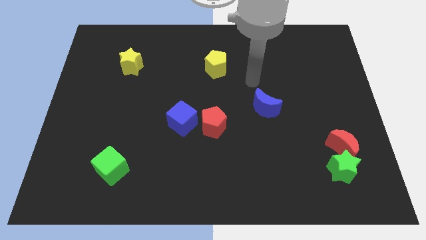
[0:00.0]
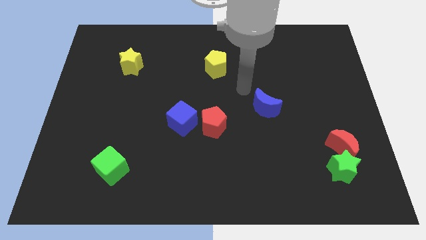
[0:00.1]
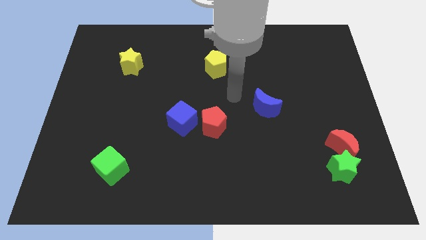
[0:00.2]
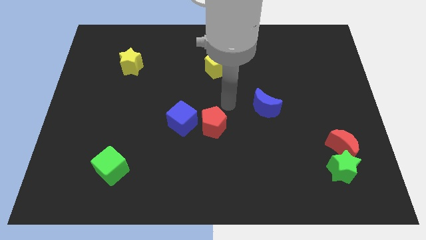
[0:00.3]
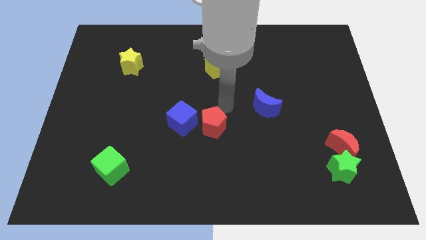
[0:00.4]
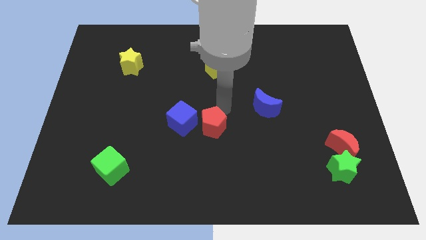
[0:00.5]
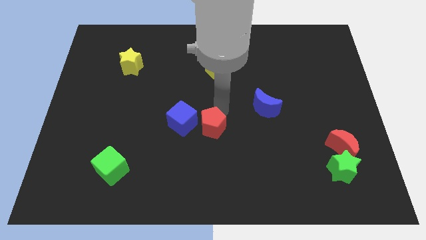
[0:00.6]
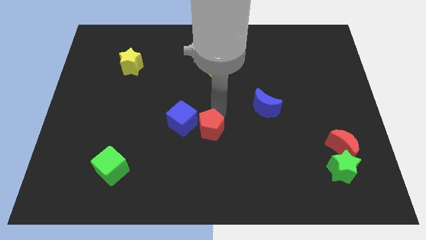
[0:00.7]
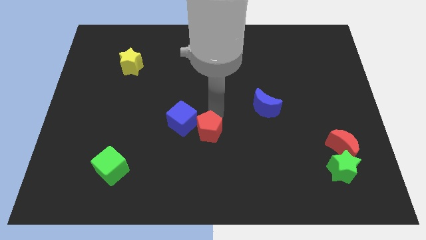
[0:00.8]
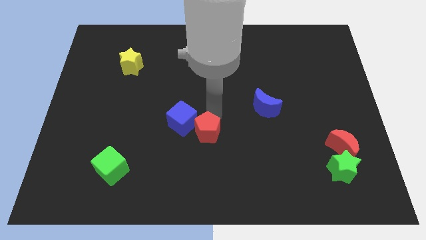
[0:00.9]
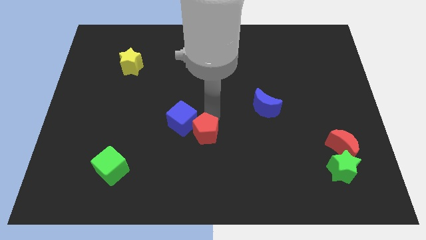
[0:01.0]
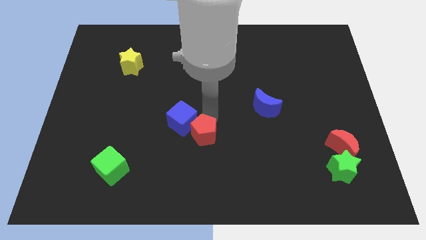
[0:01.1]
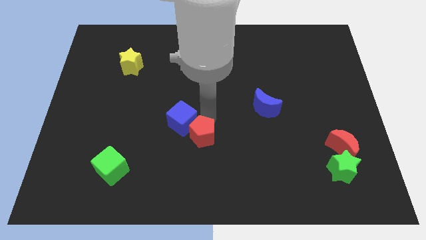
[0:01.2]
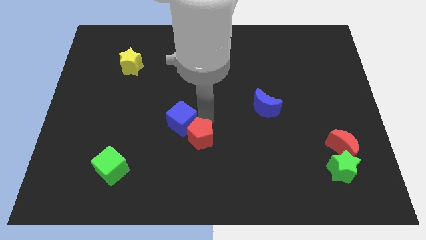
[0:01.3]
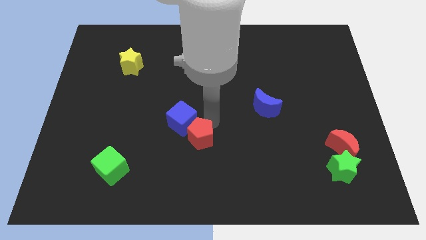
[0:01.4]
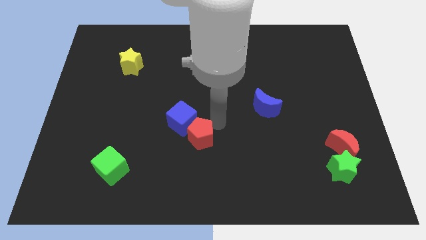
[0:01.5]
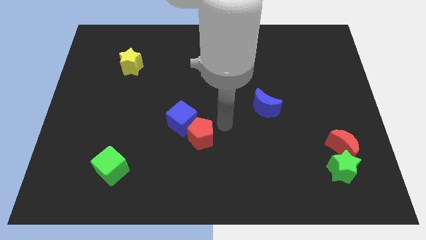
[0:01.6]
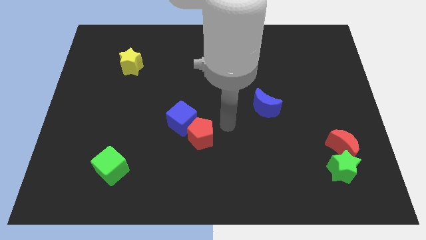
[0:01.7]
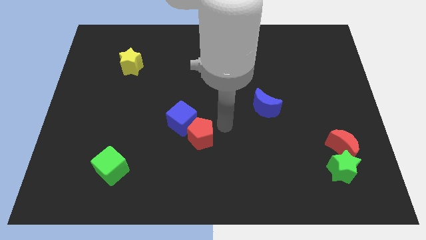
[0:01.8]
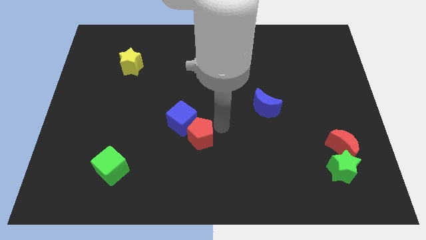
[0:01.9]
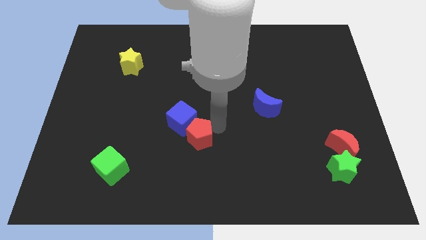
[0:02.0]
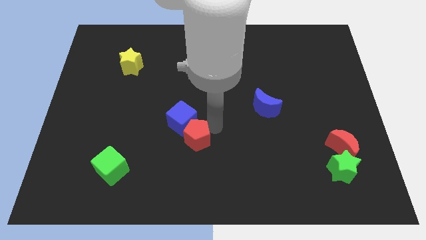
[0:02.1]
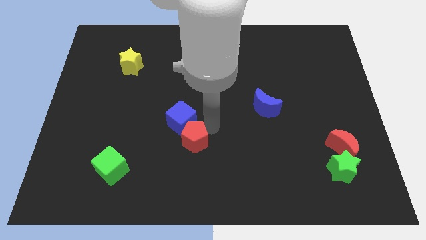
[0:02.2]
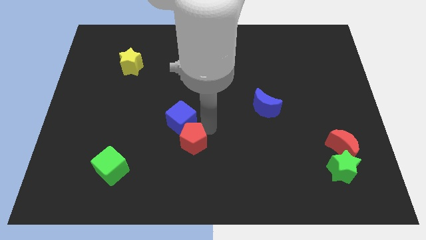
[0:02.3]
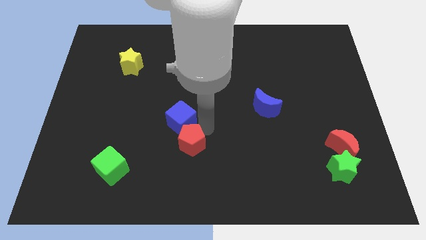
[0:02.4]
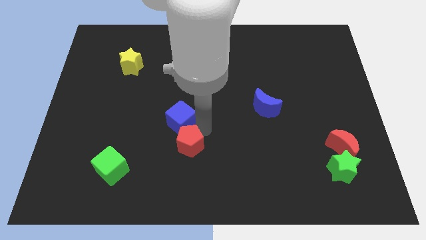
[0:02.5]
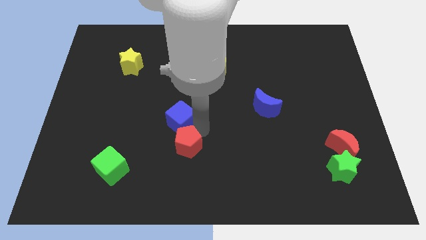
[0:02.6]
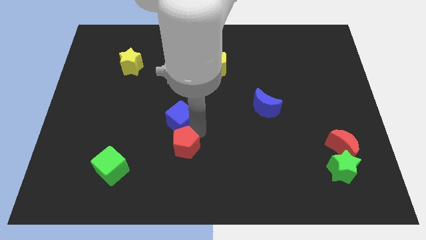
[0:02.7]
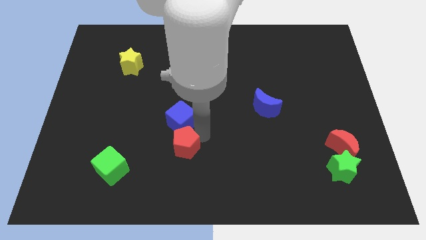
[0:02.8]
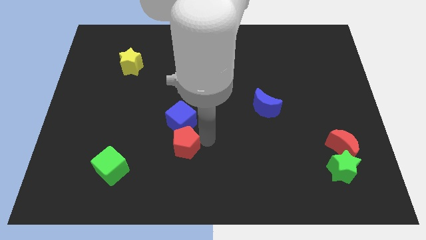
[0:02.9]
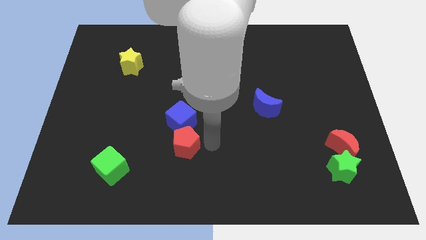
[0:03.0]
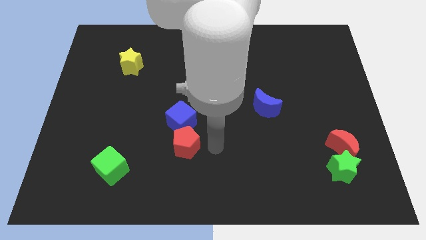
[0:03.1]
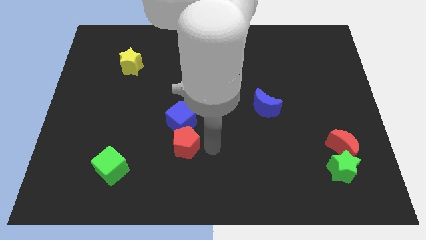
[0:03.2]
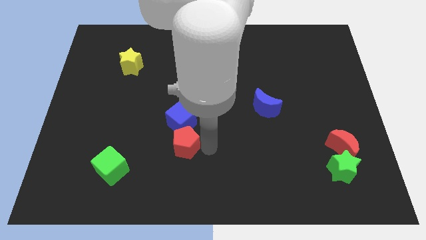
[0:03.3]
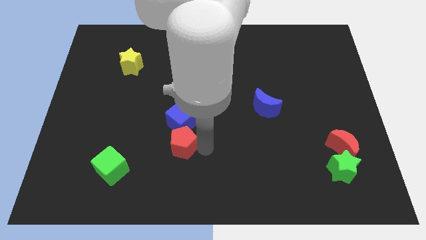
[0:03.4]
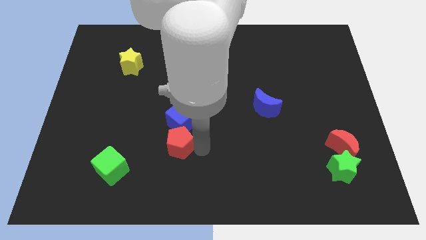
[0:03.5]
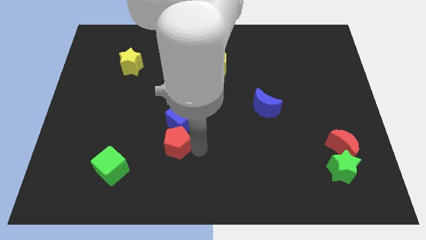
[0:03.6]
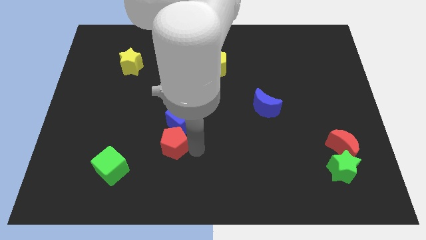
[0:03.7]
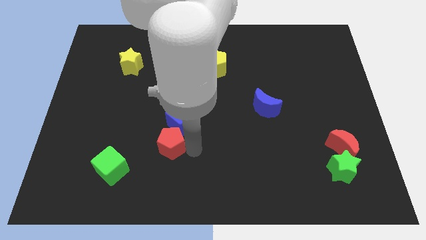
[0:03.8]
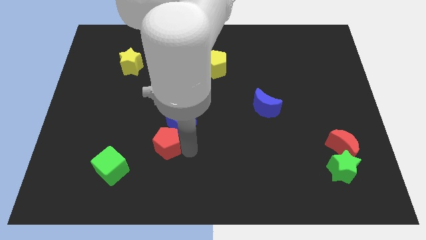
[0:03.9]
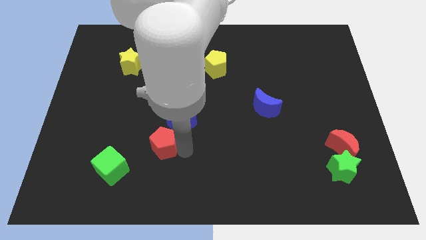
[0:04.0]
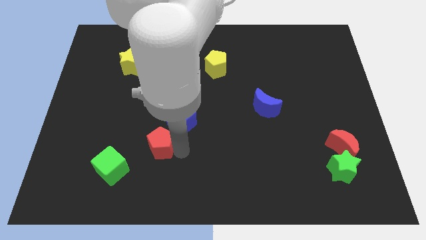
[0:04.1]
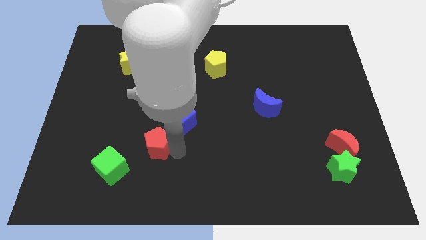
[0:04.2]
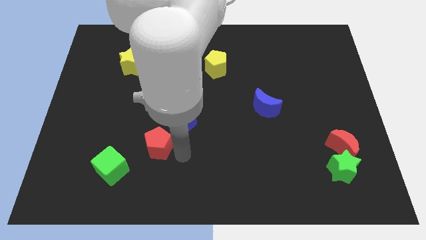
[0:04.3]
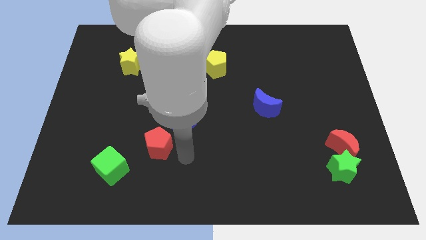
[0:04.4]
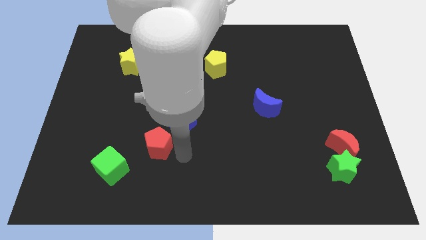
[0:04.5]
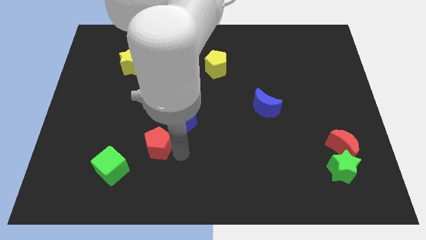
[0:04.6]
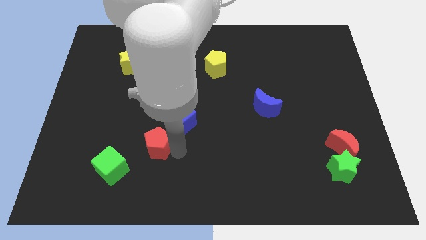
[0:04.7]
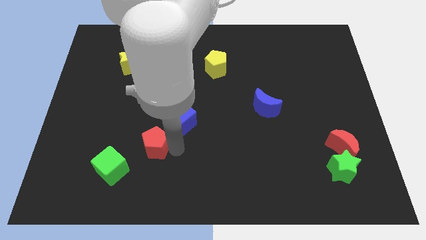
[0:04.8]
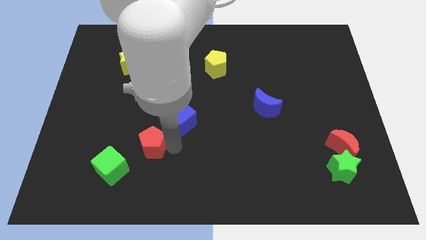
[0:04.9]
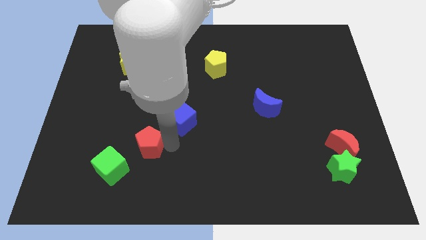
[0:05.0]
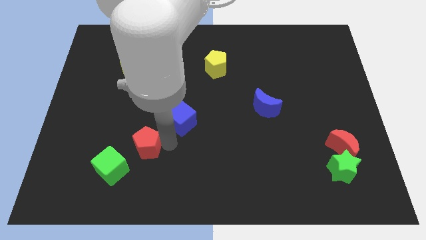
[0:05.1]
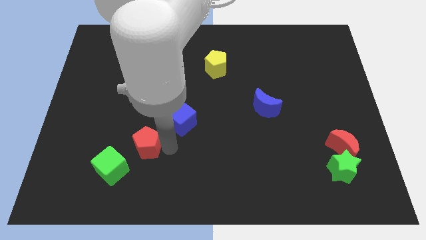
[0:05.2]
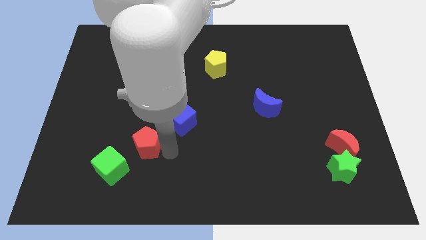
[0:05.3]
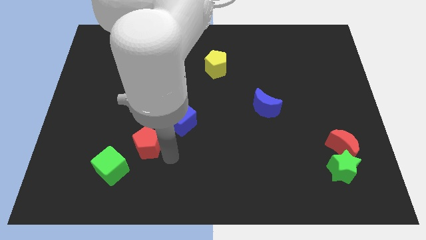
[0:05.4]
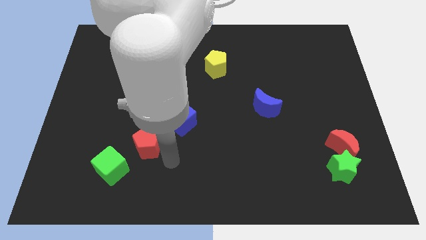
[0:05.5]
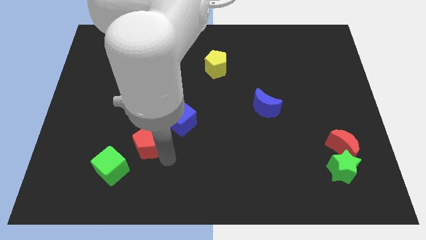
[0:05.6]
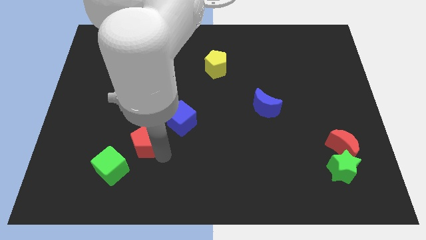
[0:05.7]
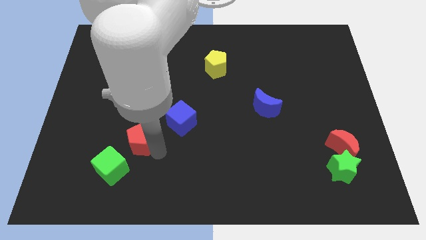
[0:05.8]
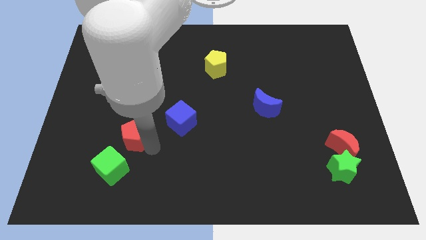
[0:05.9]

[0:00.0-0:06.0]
push the red pentagon above the green cube

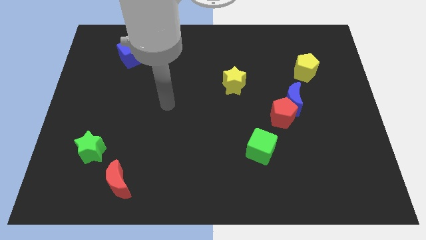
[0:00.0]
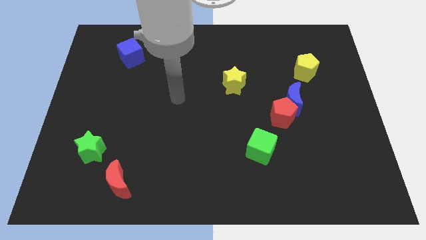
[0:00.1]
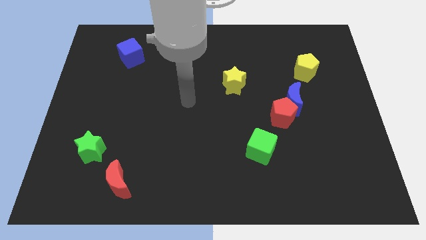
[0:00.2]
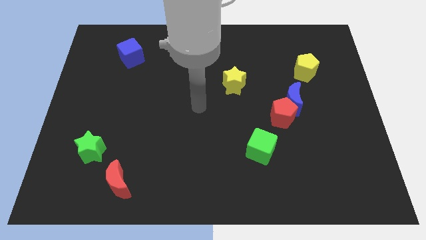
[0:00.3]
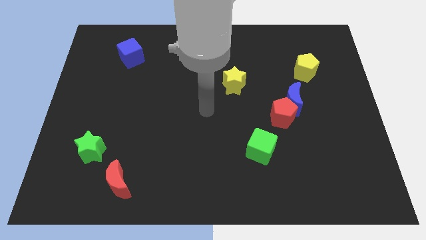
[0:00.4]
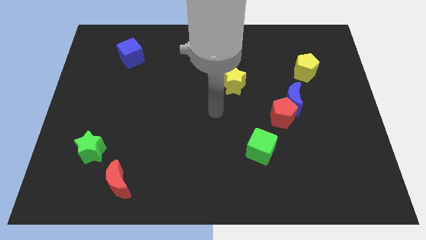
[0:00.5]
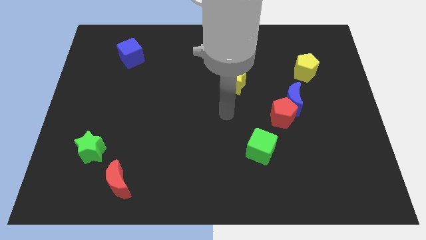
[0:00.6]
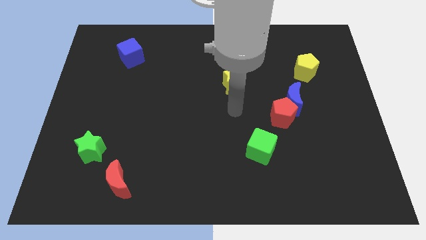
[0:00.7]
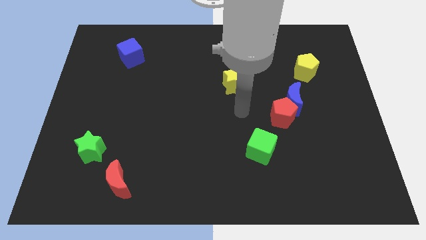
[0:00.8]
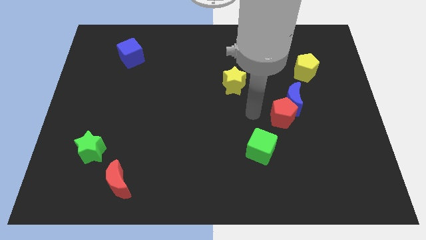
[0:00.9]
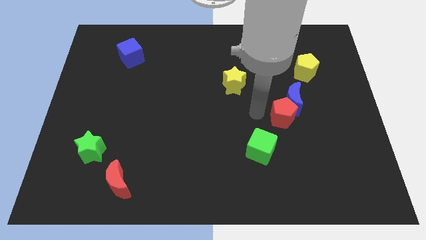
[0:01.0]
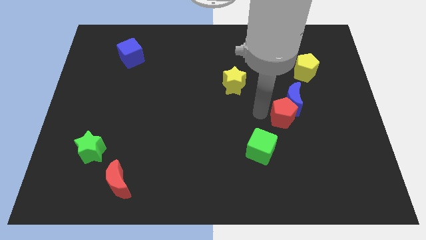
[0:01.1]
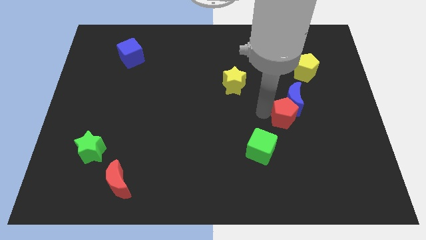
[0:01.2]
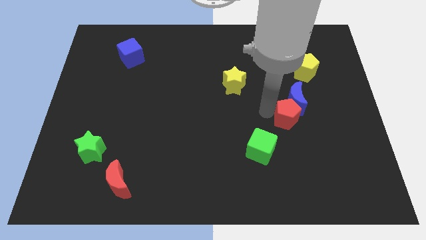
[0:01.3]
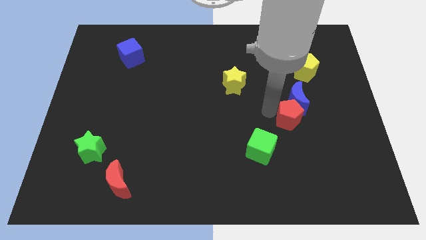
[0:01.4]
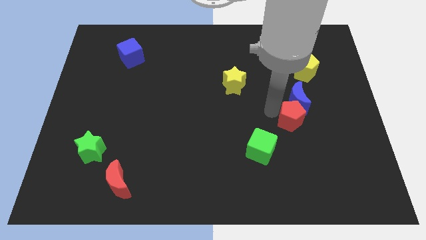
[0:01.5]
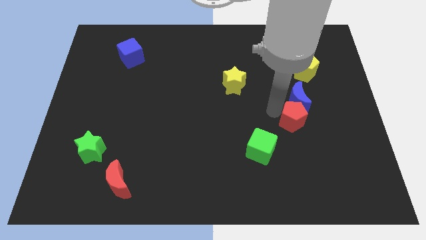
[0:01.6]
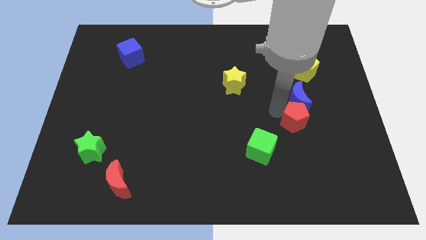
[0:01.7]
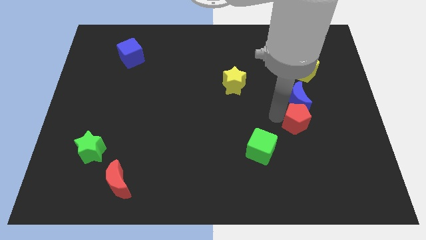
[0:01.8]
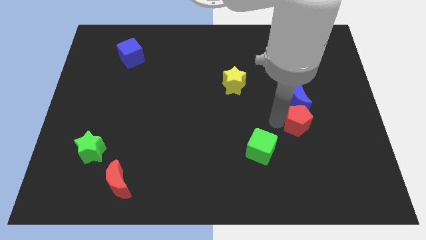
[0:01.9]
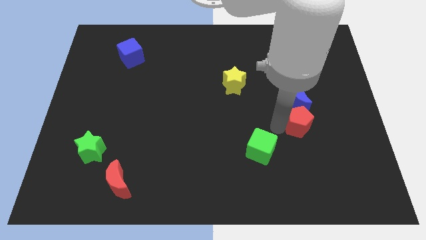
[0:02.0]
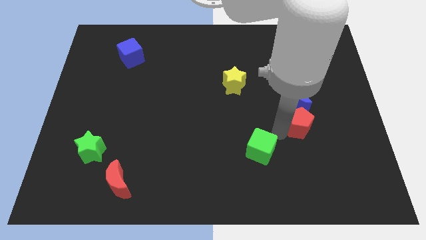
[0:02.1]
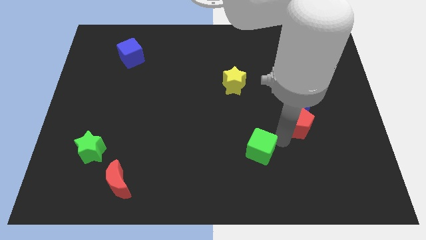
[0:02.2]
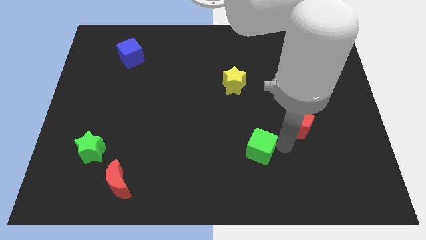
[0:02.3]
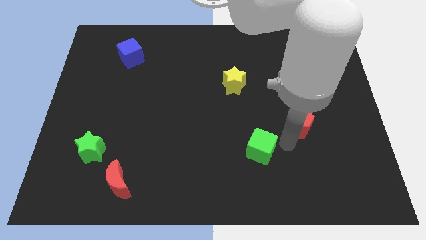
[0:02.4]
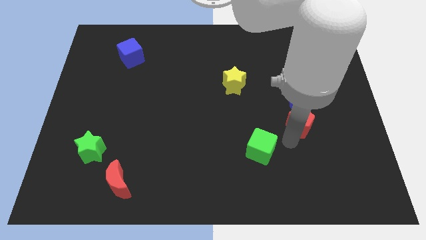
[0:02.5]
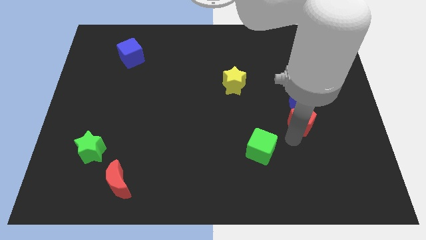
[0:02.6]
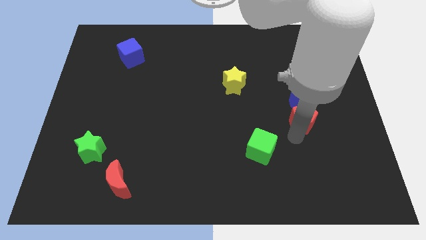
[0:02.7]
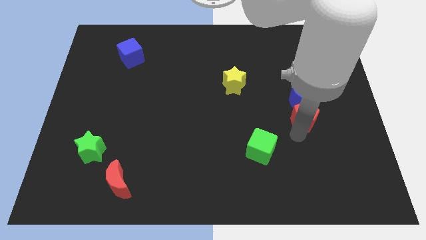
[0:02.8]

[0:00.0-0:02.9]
slide the red pentagon to the bottom of the yellow pentagon
